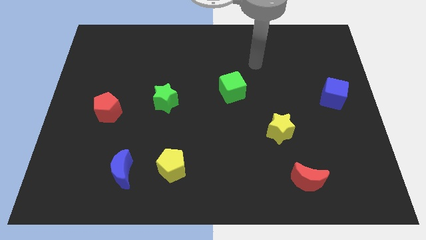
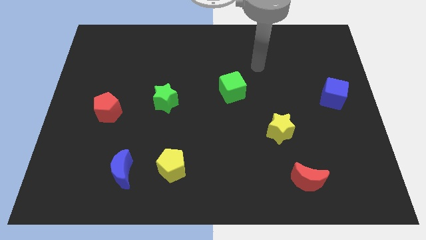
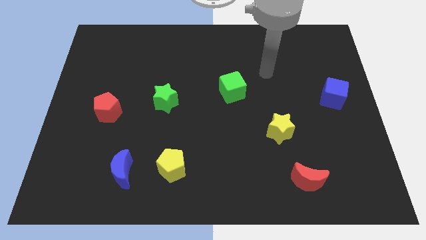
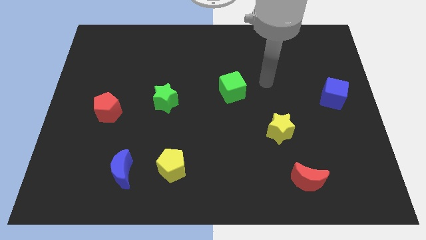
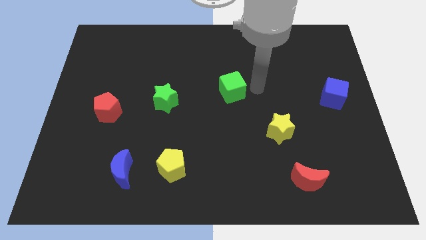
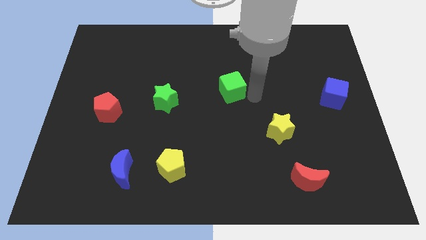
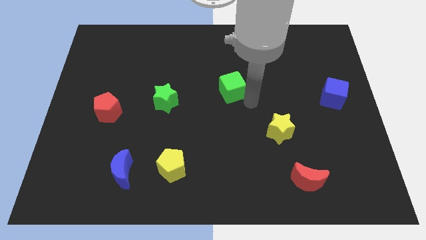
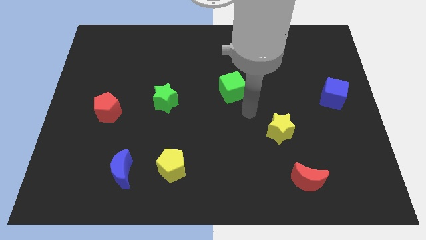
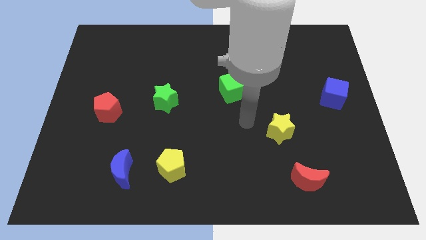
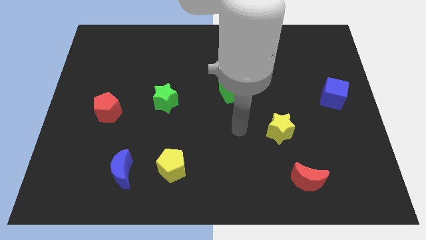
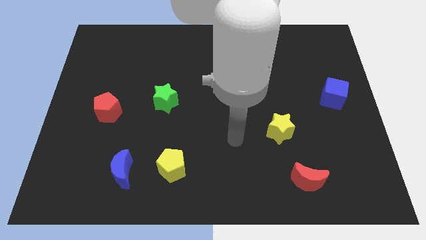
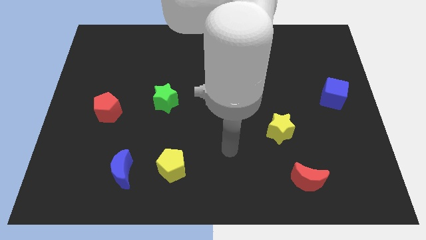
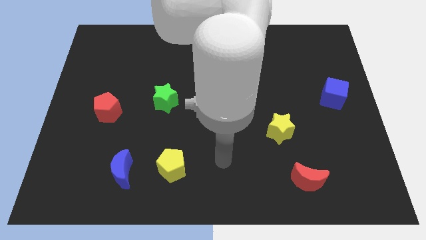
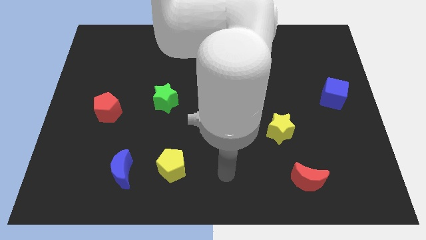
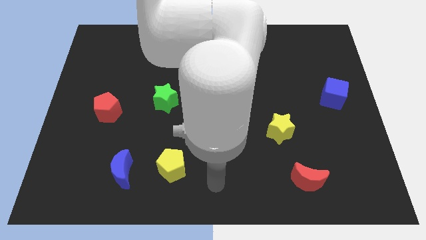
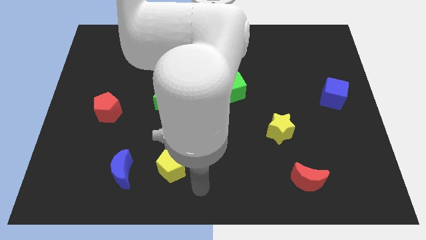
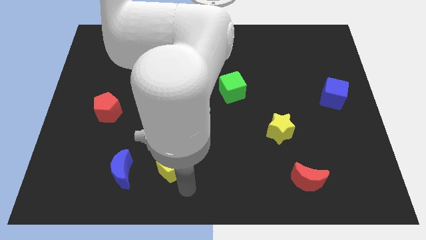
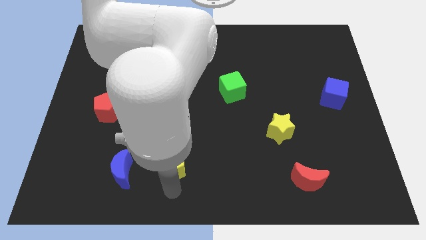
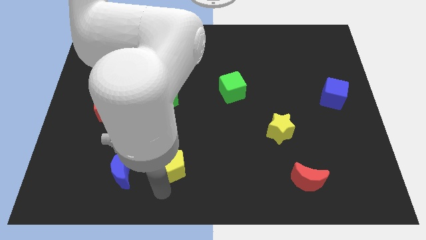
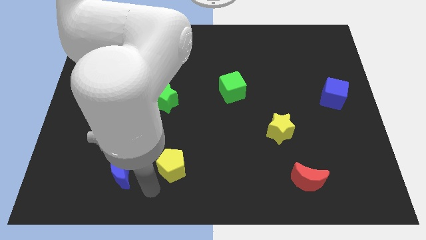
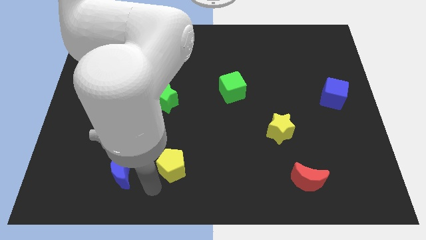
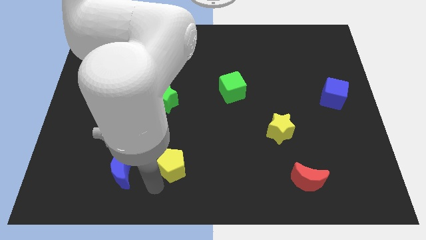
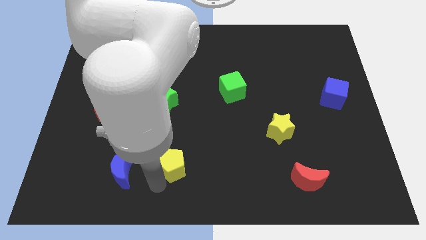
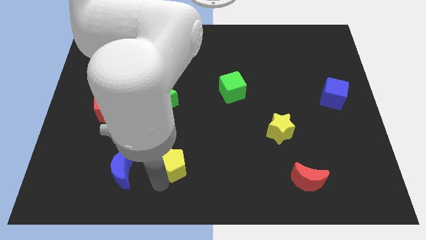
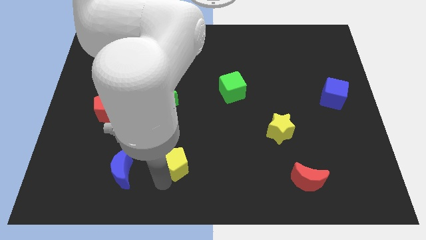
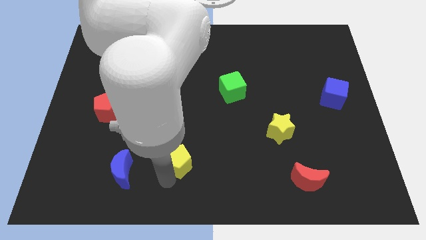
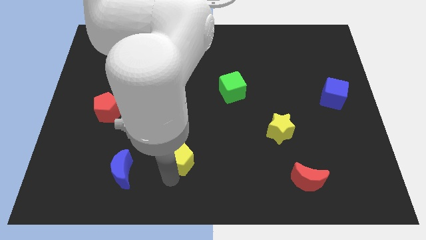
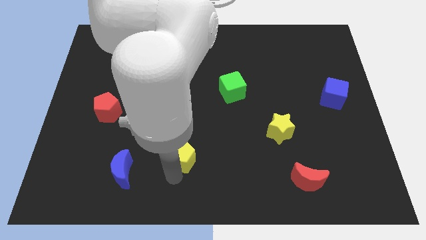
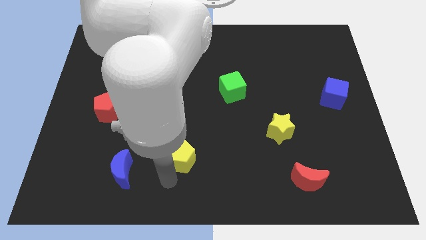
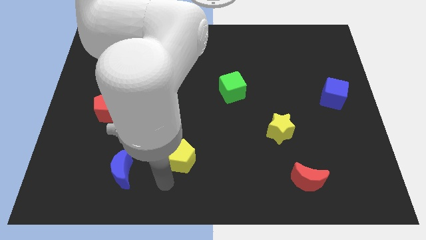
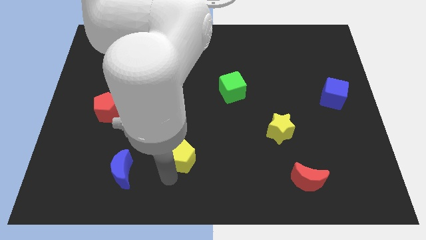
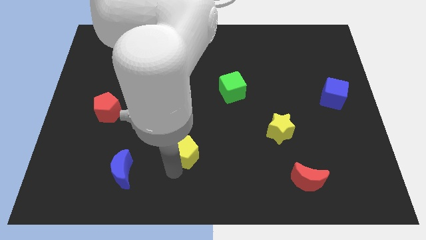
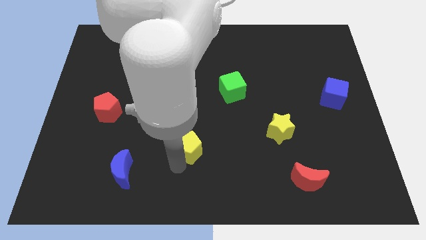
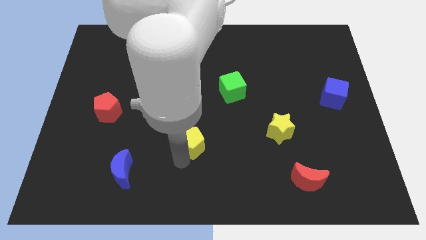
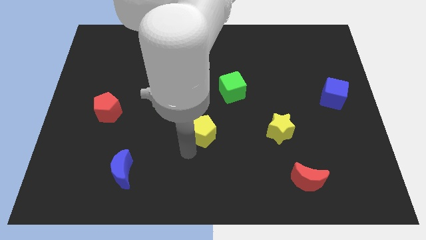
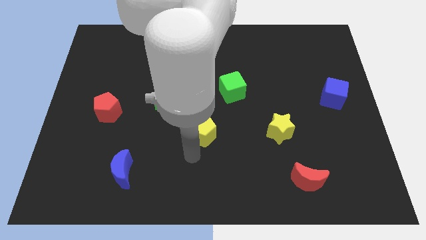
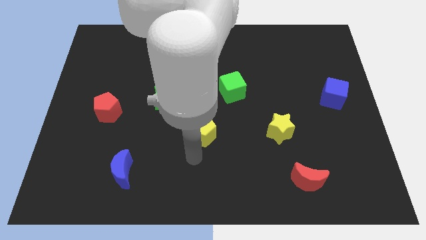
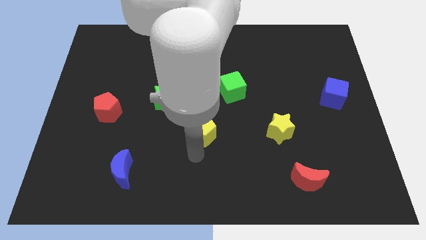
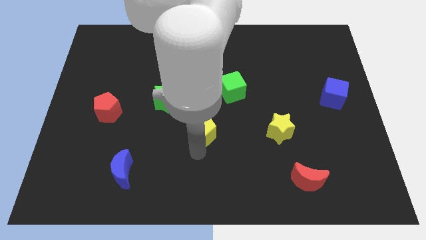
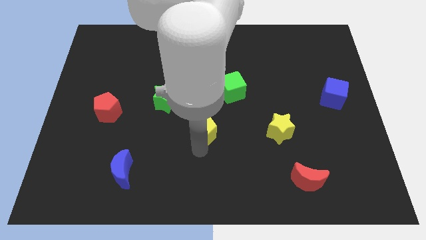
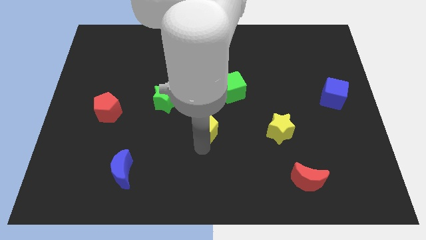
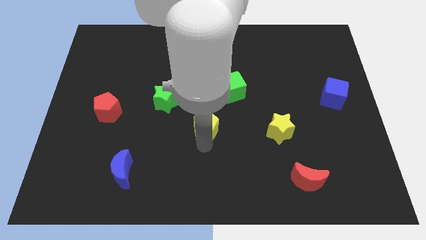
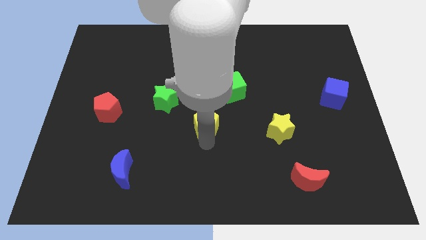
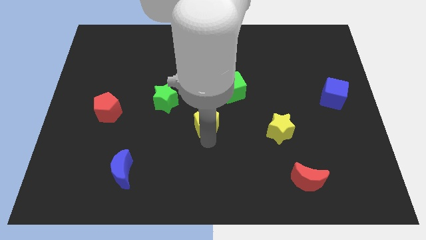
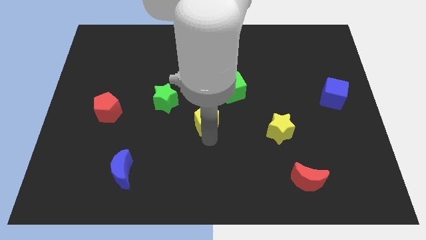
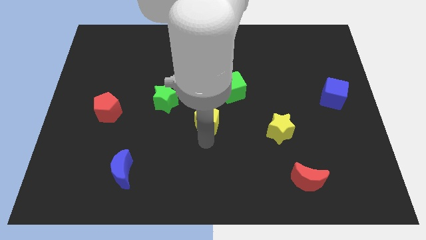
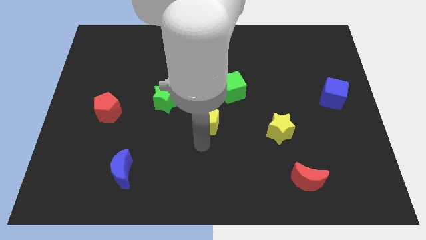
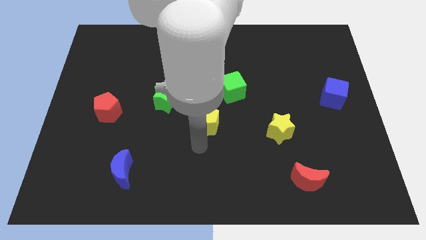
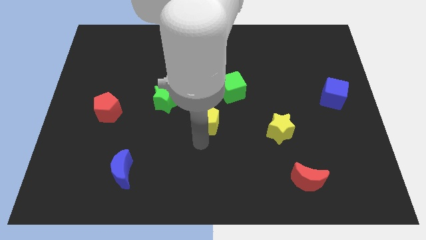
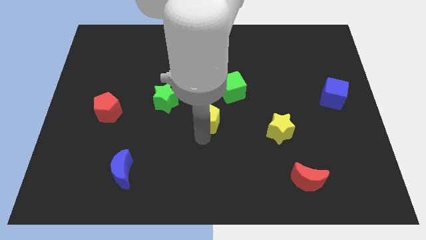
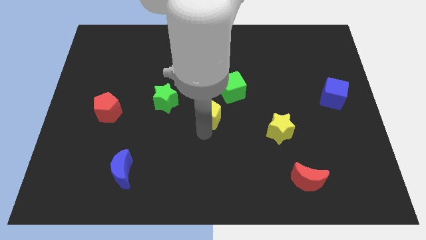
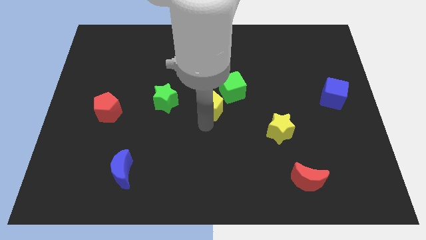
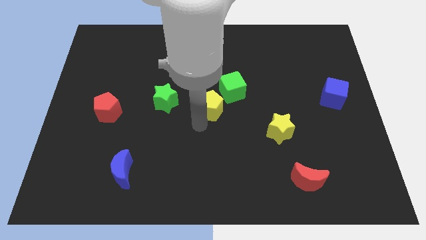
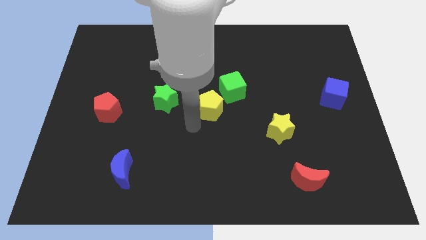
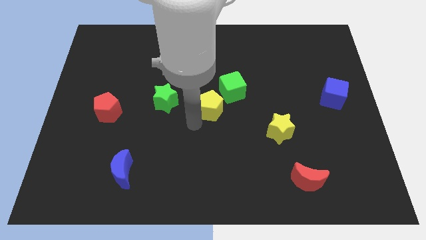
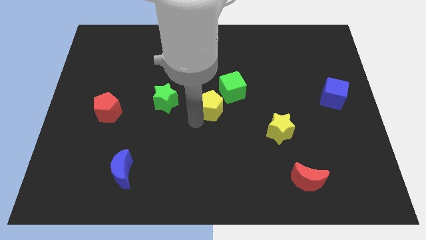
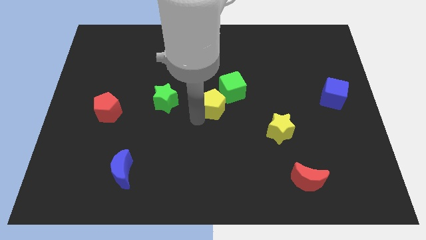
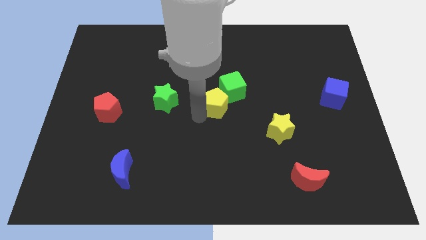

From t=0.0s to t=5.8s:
move the yellow pentagon next to the green cube
